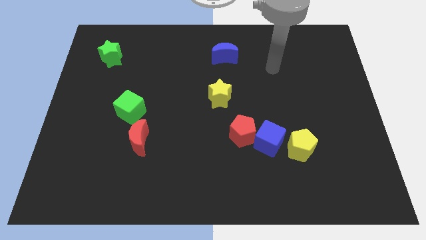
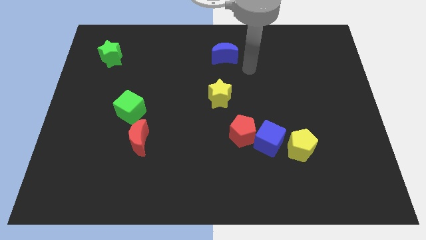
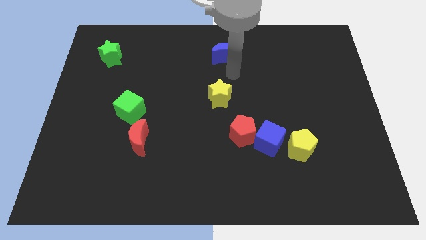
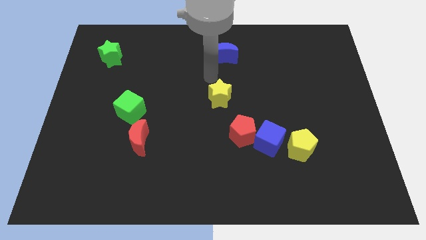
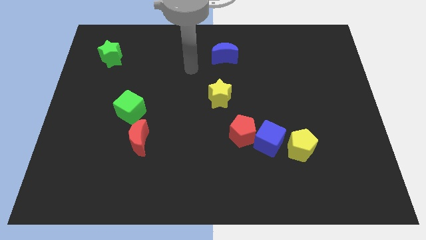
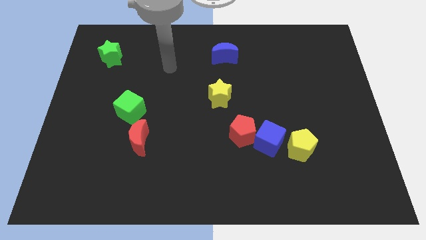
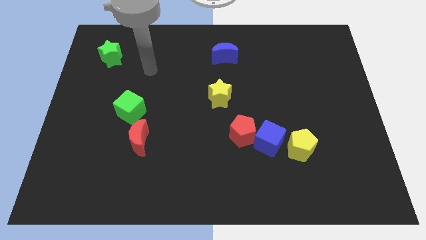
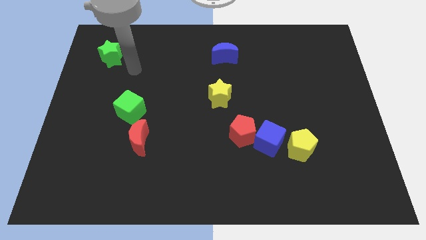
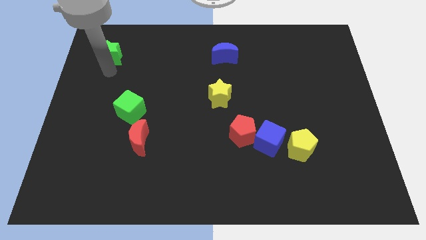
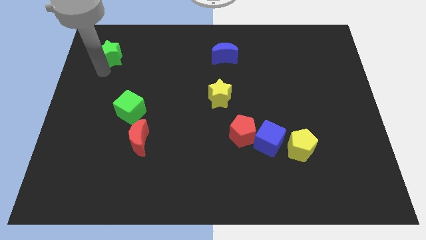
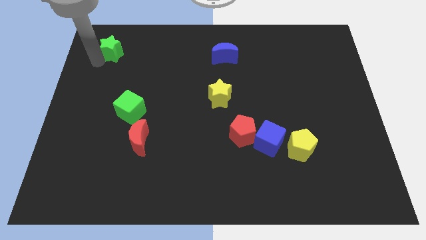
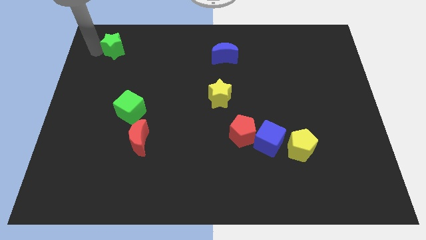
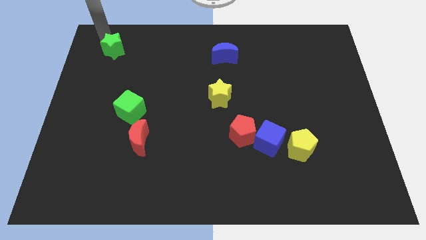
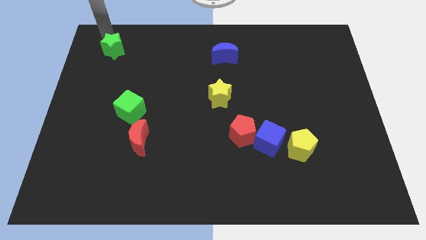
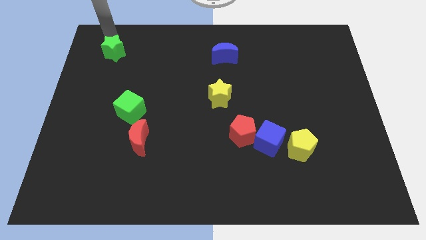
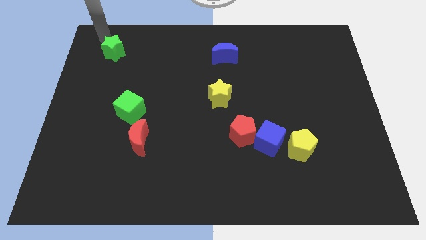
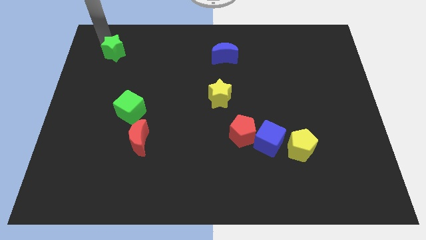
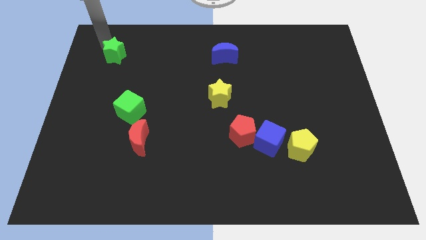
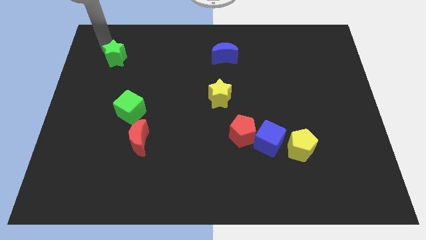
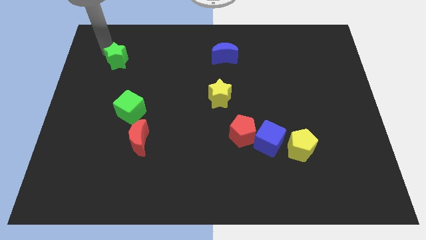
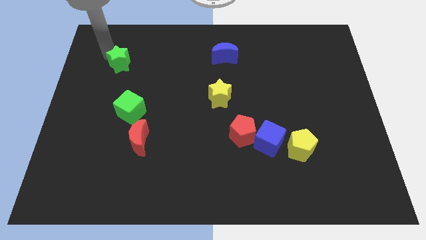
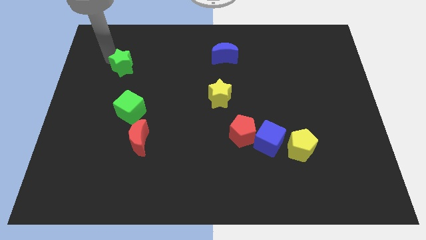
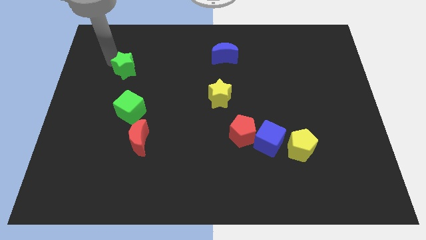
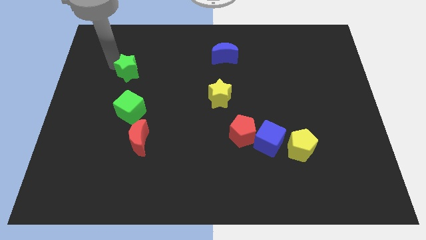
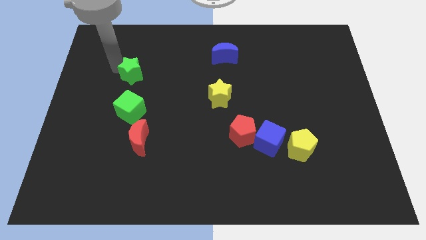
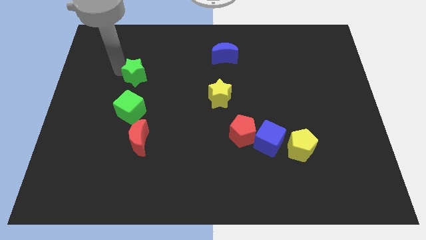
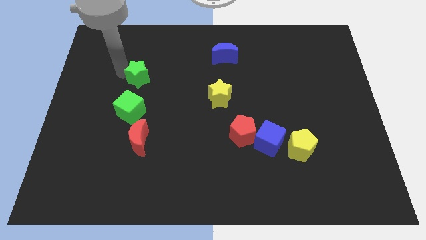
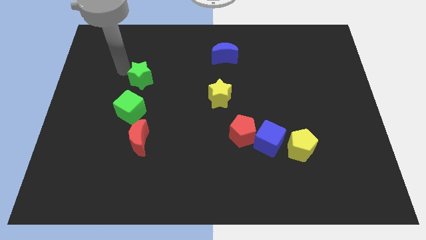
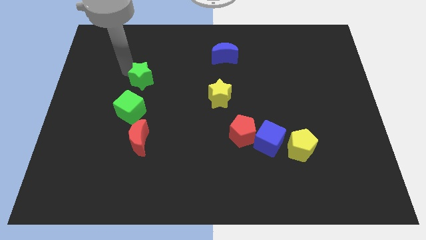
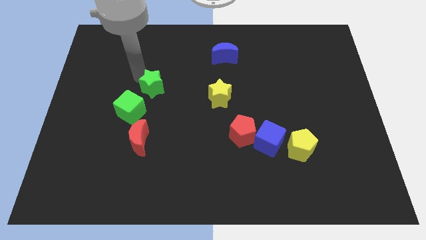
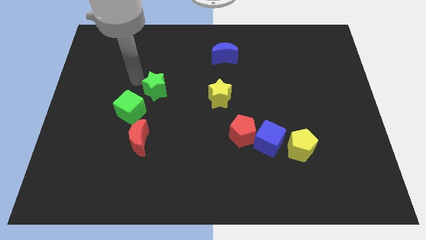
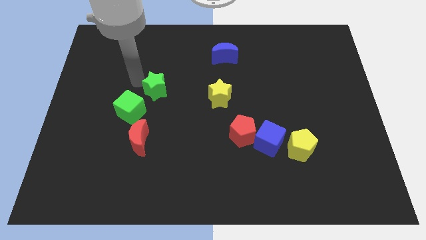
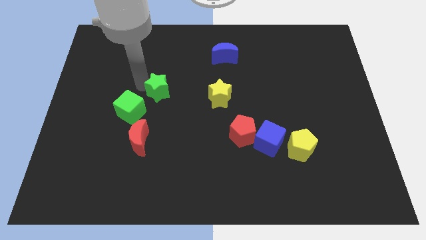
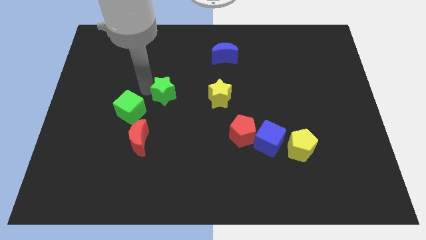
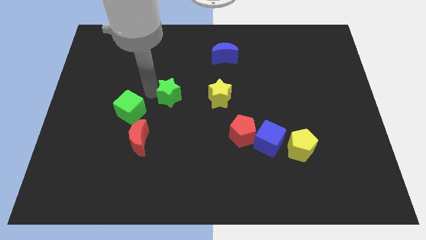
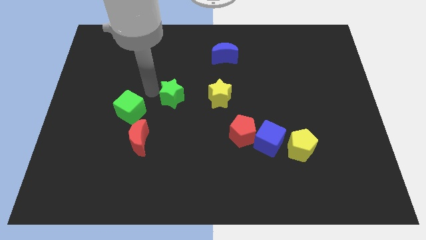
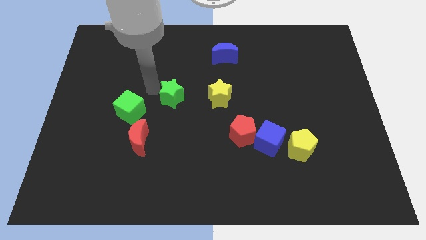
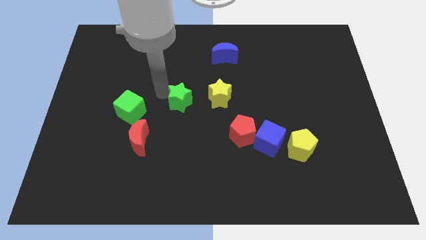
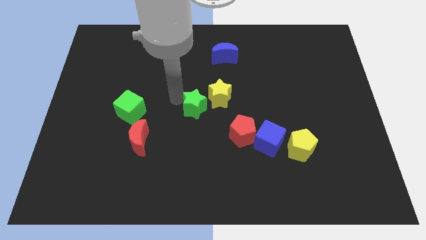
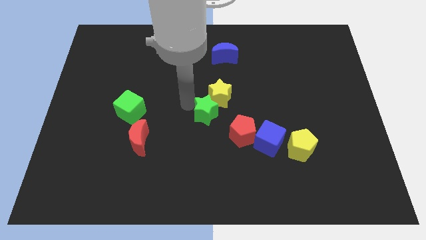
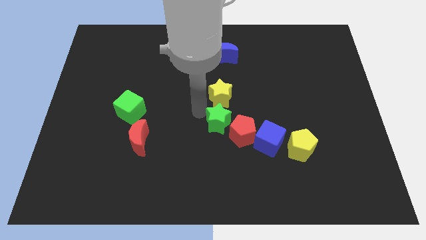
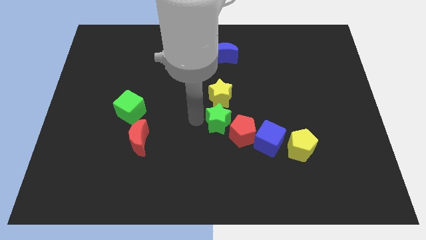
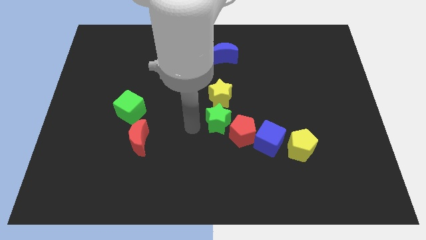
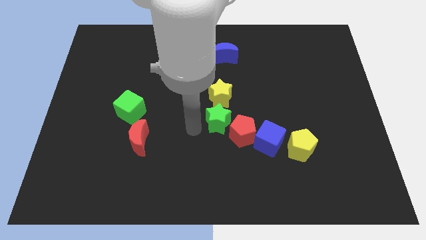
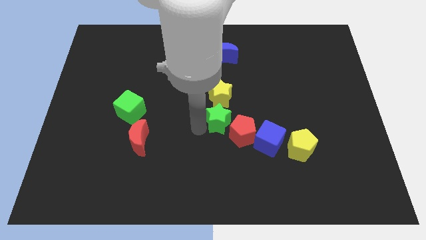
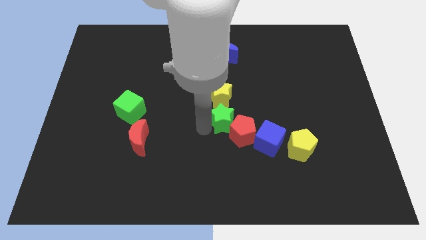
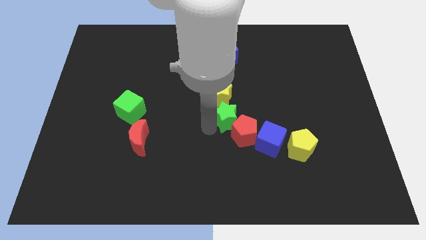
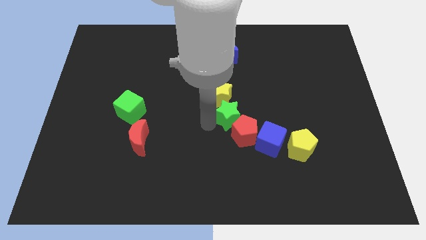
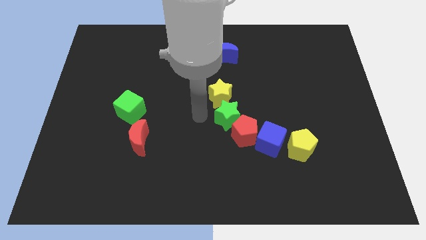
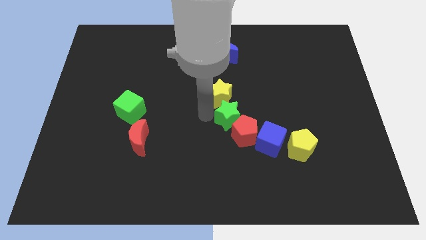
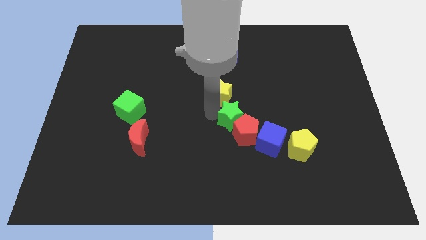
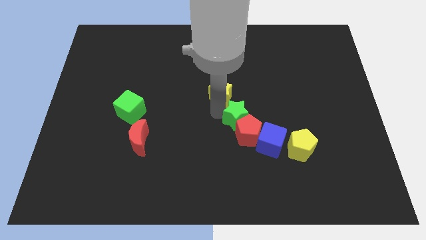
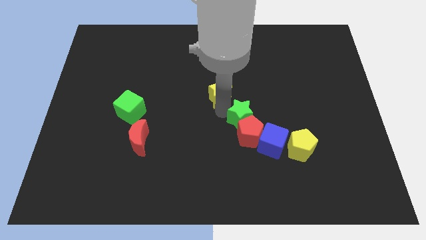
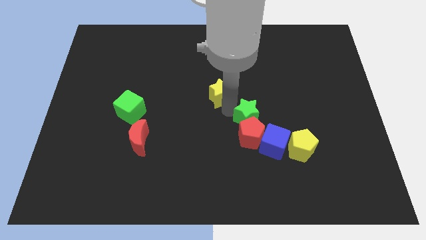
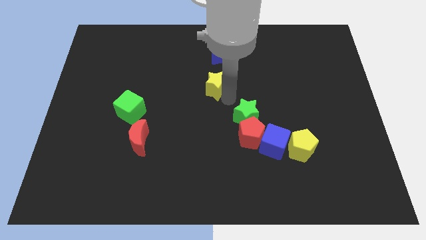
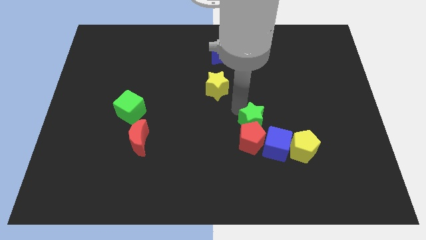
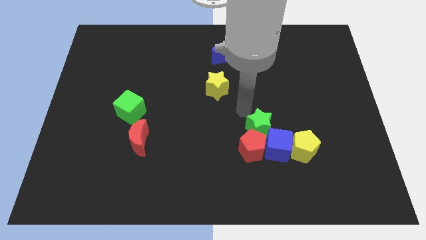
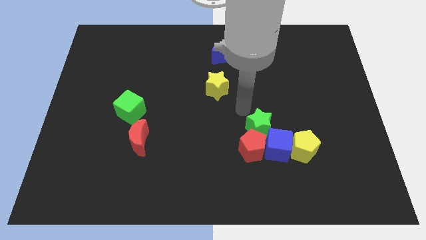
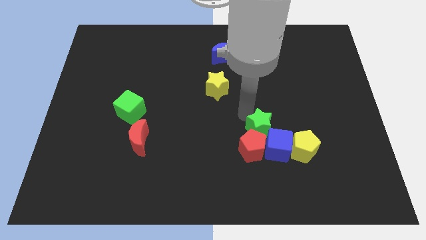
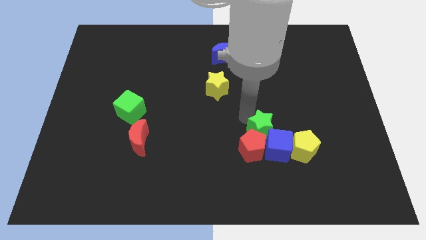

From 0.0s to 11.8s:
put the green star close to the blue cube

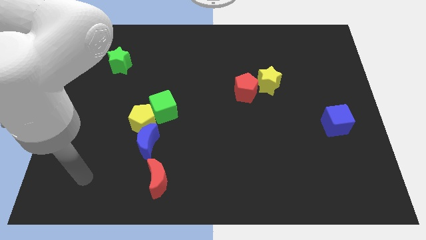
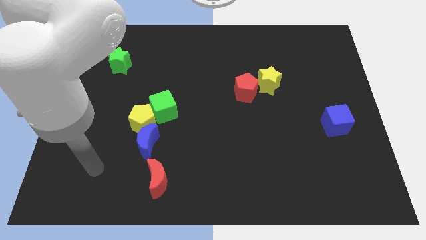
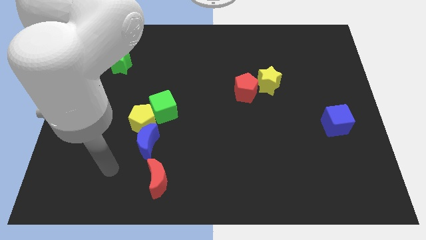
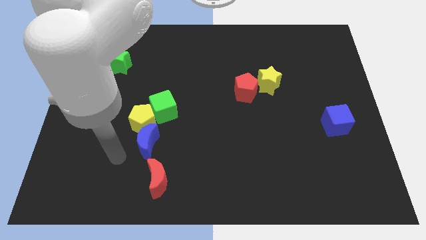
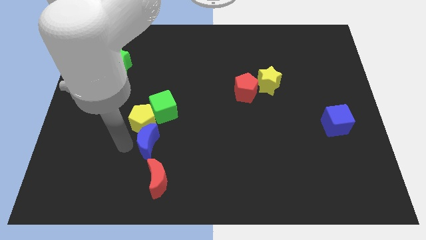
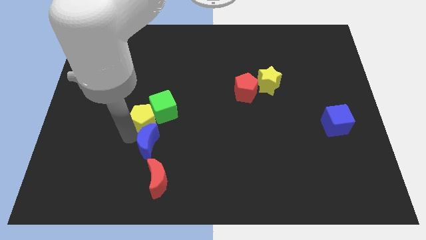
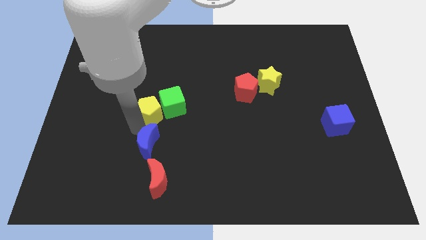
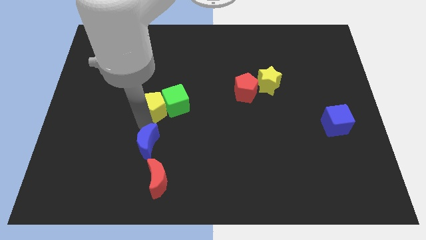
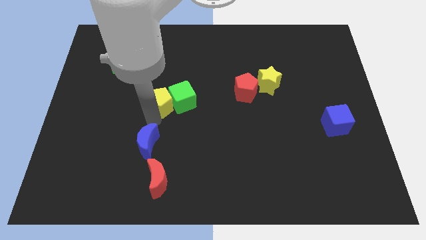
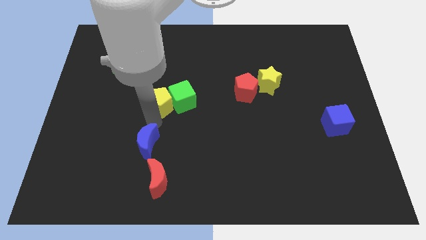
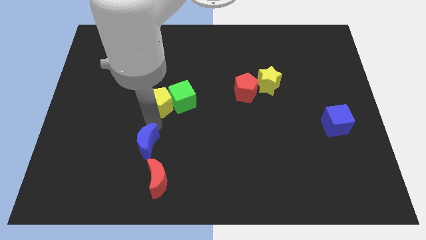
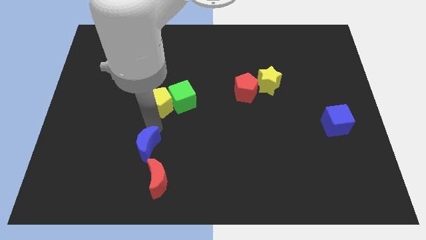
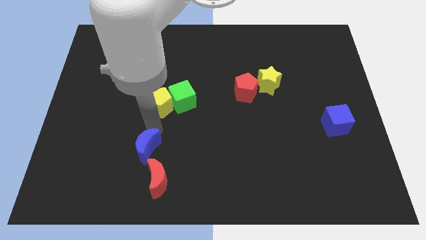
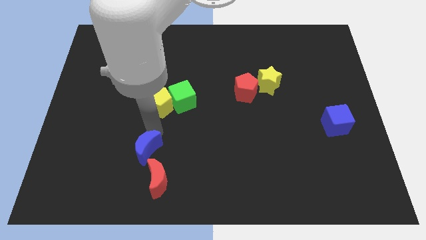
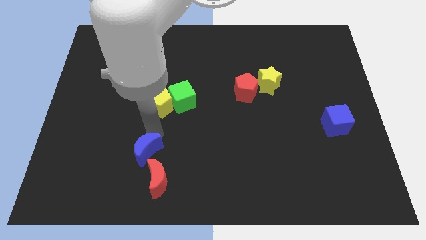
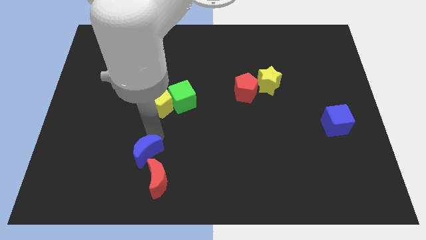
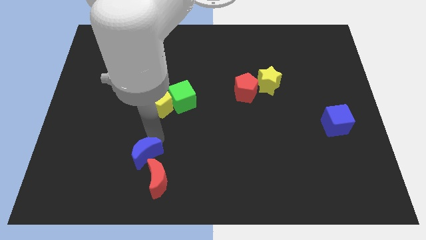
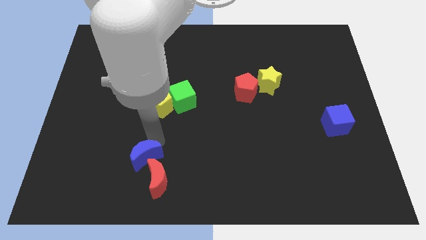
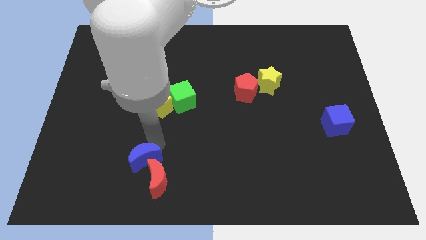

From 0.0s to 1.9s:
push the blue moon to the red moon
